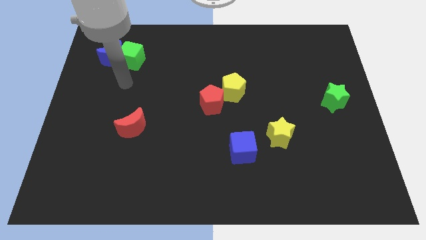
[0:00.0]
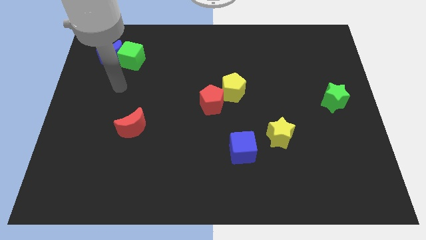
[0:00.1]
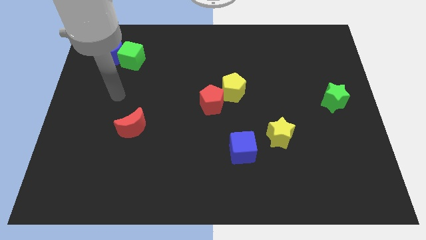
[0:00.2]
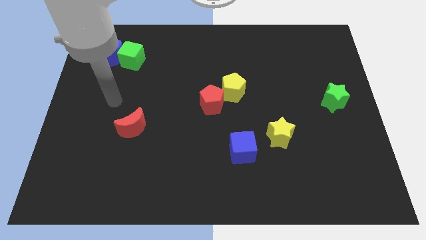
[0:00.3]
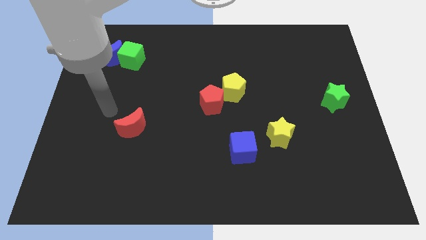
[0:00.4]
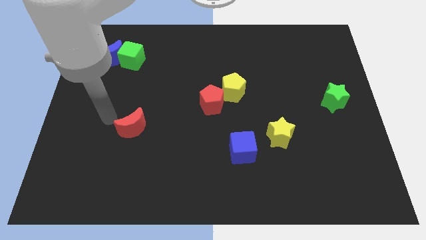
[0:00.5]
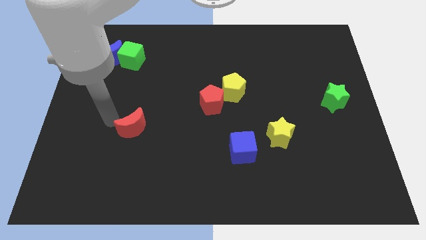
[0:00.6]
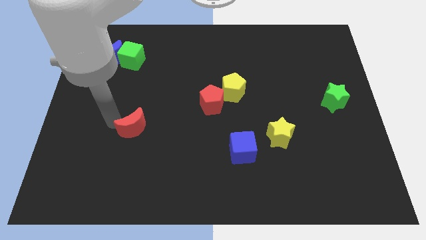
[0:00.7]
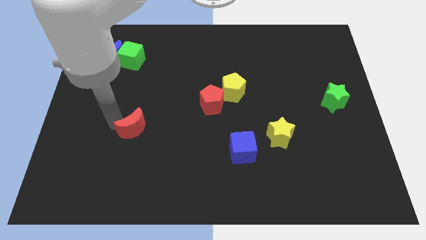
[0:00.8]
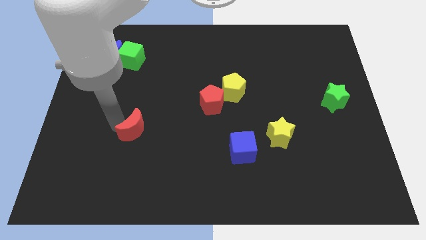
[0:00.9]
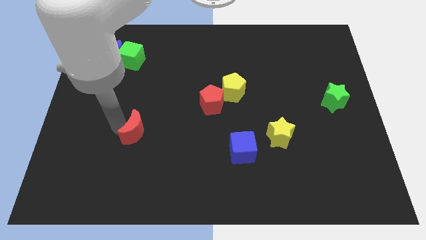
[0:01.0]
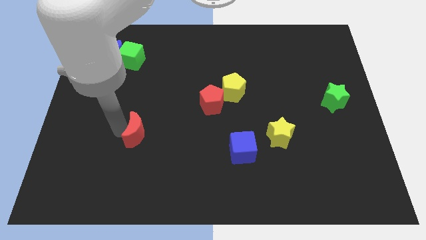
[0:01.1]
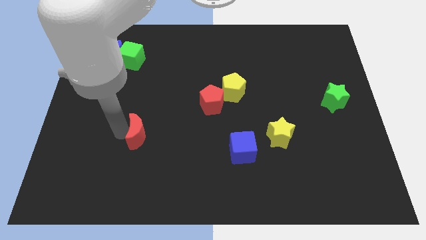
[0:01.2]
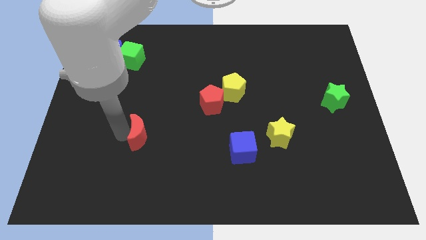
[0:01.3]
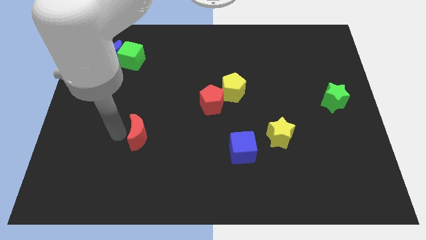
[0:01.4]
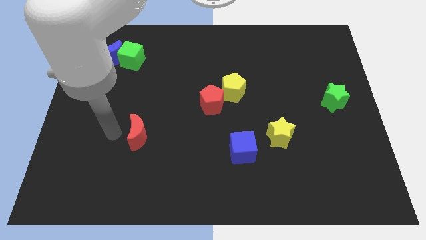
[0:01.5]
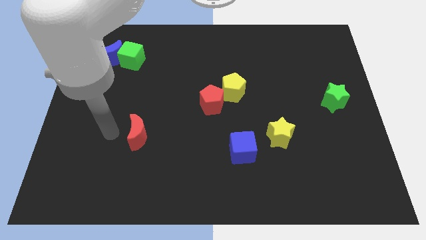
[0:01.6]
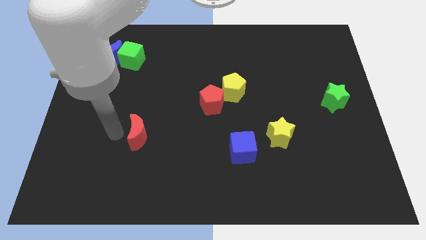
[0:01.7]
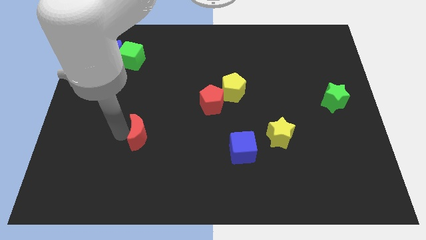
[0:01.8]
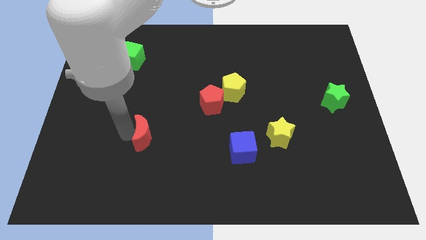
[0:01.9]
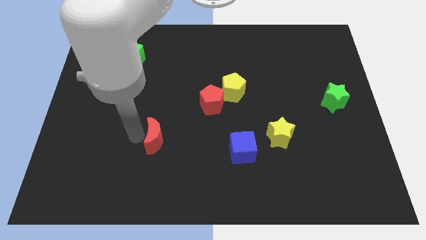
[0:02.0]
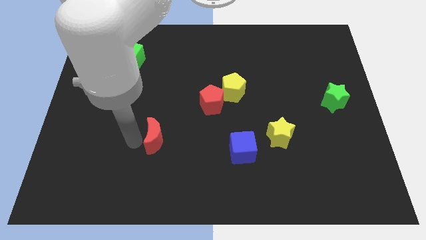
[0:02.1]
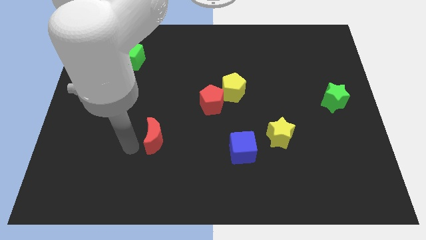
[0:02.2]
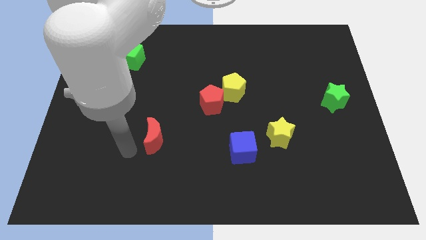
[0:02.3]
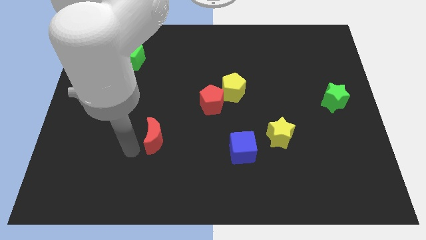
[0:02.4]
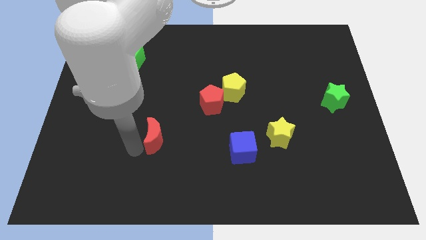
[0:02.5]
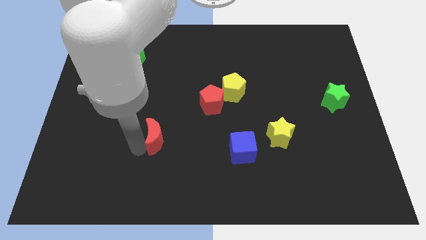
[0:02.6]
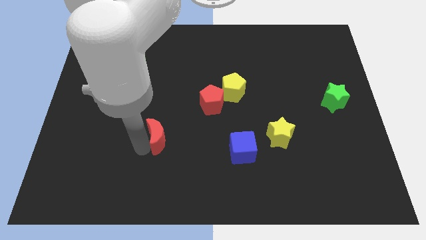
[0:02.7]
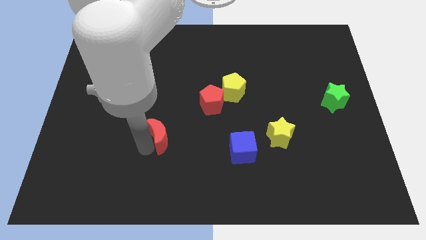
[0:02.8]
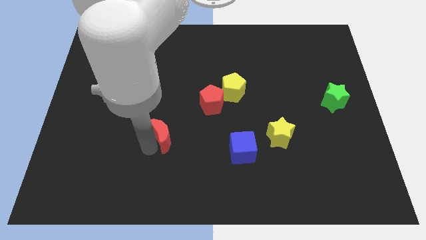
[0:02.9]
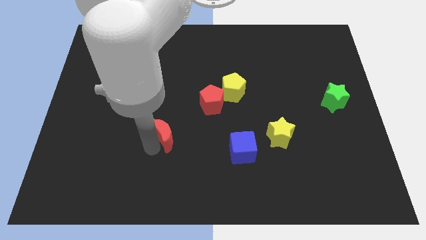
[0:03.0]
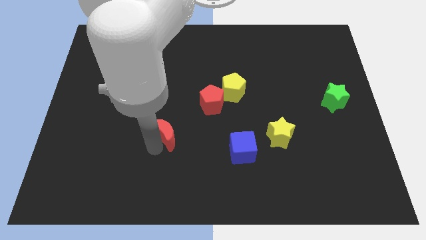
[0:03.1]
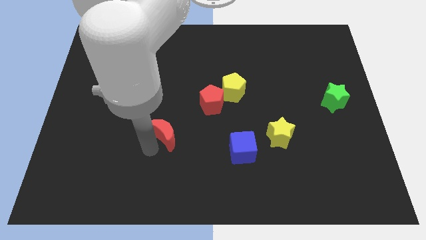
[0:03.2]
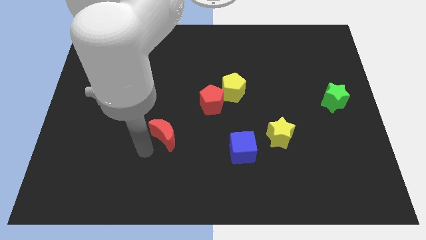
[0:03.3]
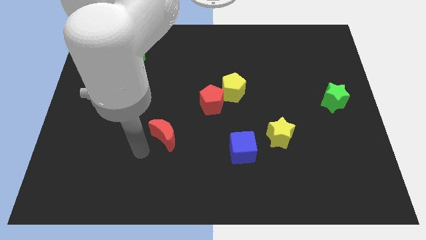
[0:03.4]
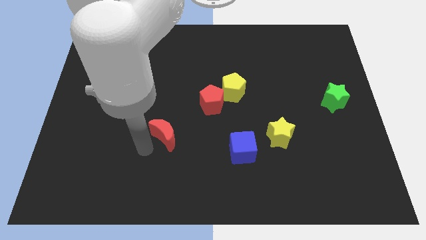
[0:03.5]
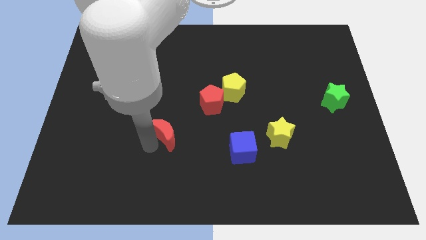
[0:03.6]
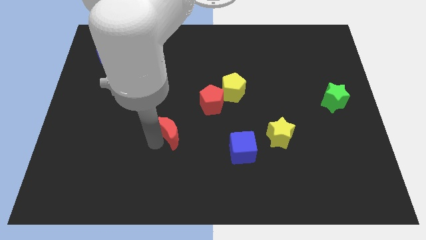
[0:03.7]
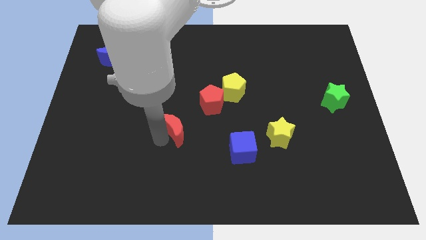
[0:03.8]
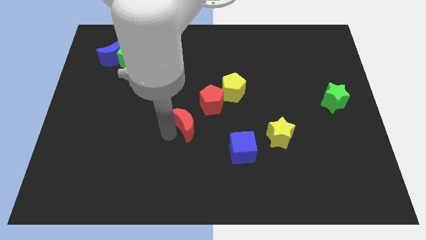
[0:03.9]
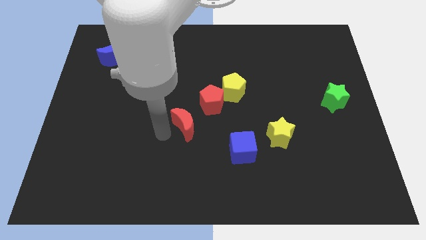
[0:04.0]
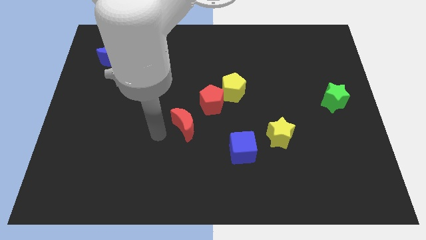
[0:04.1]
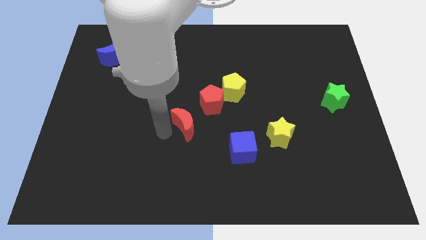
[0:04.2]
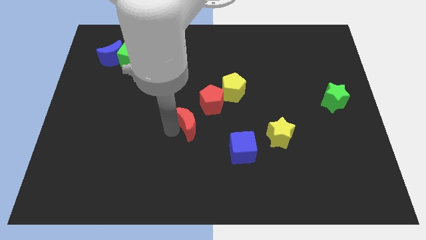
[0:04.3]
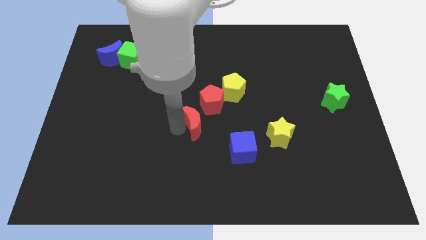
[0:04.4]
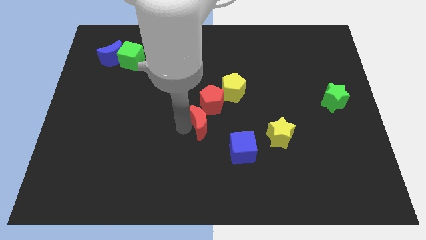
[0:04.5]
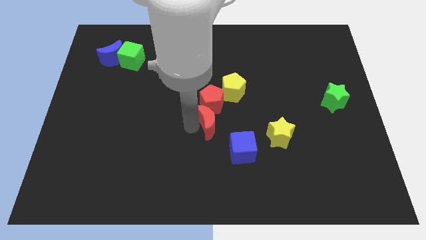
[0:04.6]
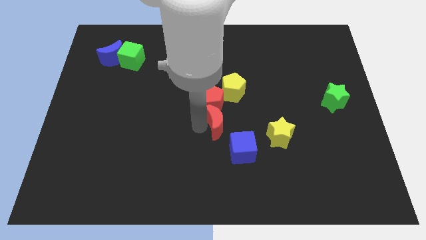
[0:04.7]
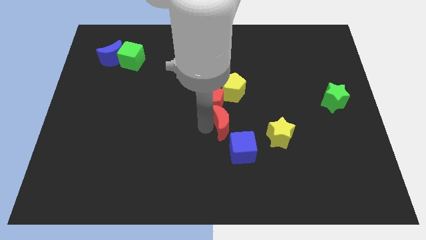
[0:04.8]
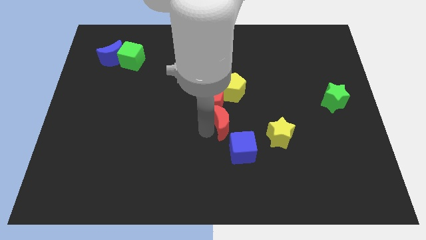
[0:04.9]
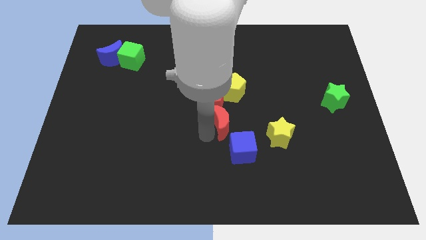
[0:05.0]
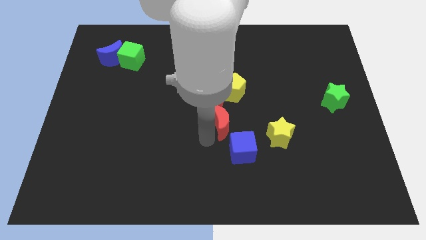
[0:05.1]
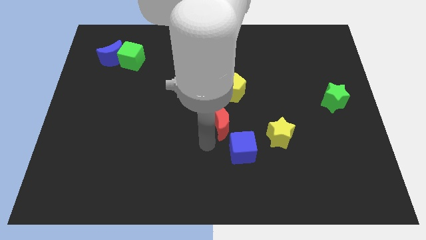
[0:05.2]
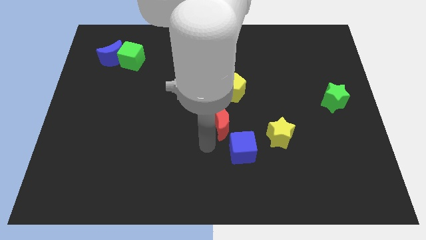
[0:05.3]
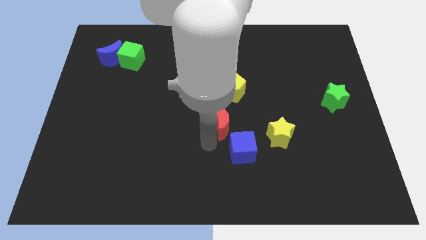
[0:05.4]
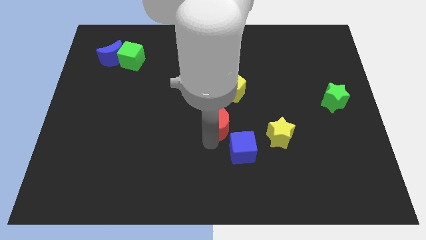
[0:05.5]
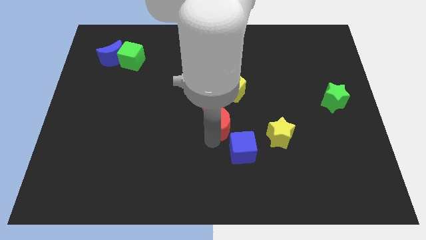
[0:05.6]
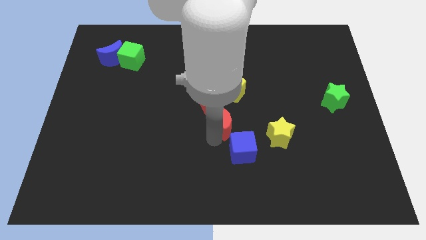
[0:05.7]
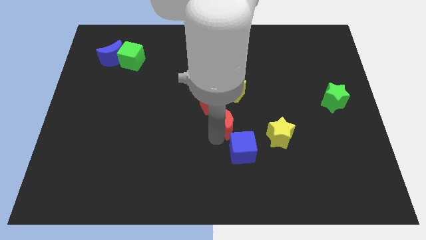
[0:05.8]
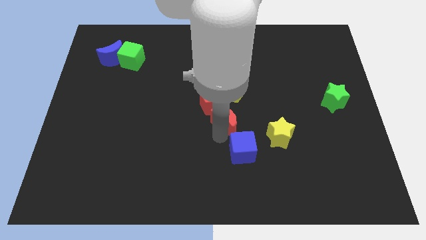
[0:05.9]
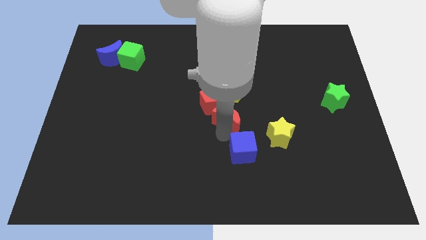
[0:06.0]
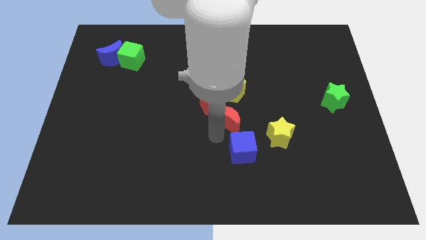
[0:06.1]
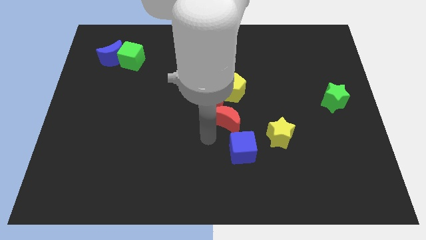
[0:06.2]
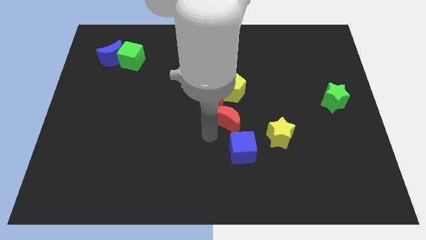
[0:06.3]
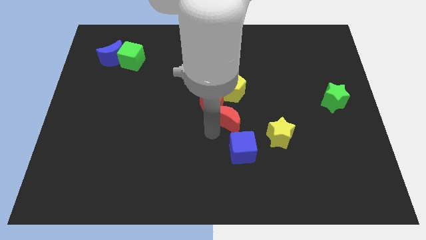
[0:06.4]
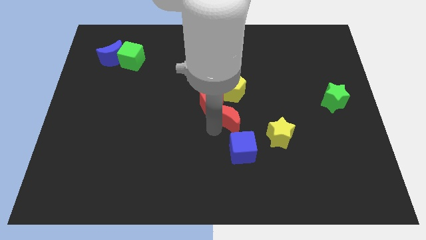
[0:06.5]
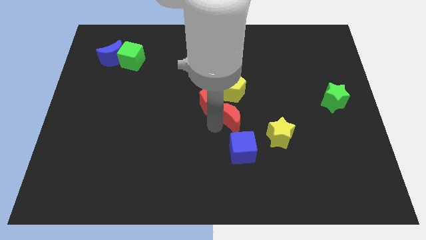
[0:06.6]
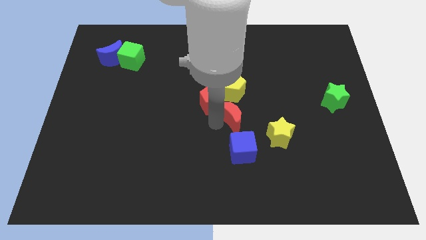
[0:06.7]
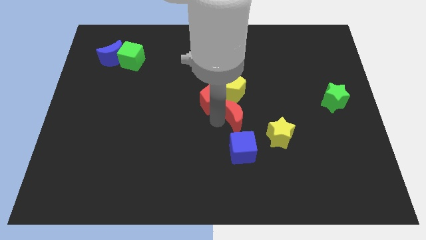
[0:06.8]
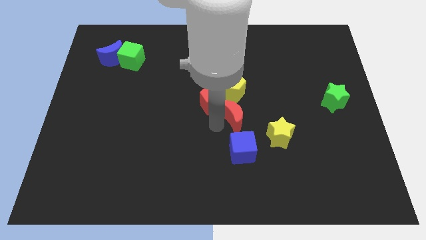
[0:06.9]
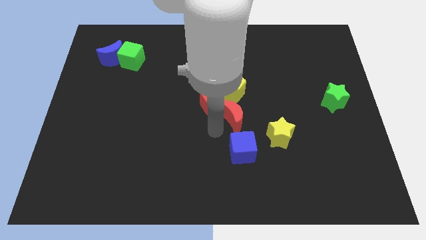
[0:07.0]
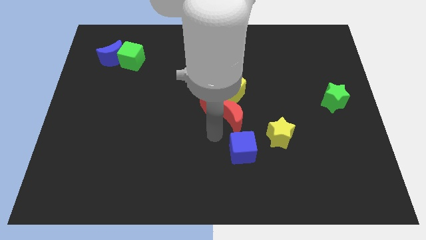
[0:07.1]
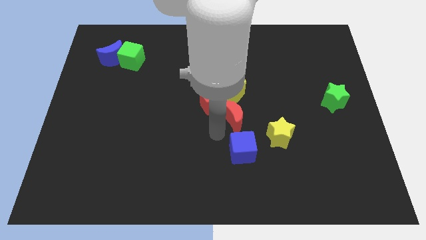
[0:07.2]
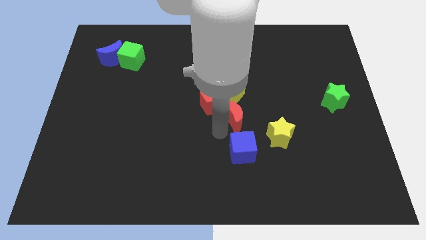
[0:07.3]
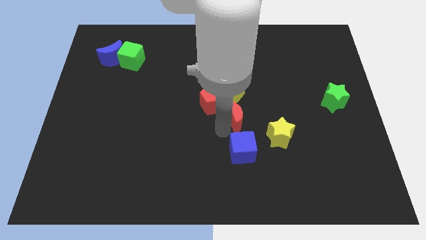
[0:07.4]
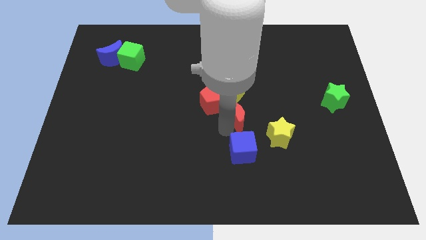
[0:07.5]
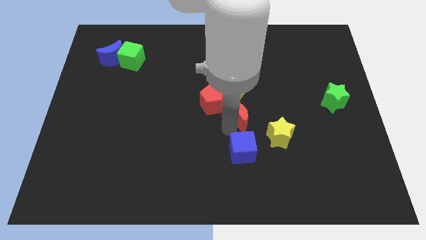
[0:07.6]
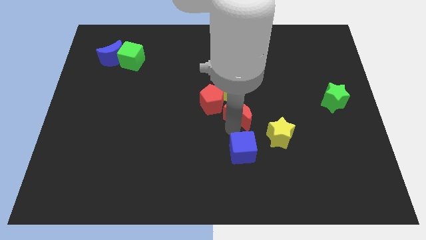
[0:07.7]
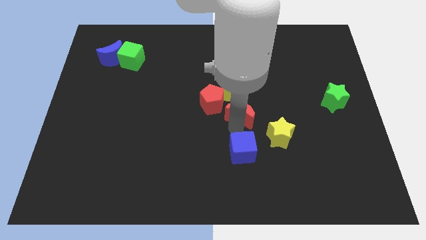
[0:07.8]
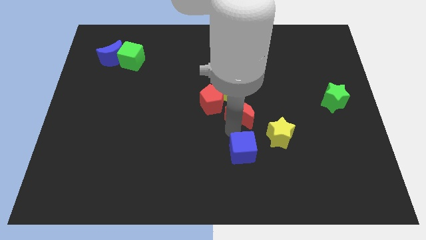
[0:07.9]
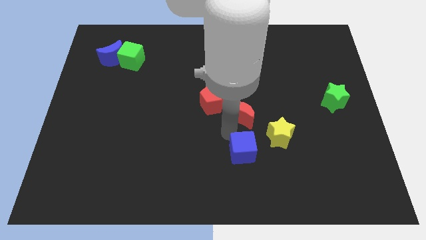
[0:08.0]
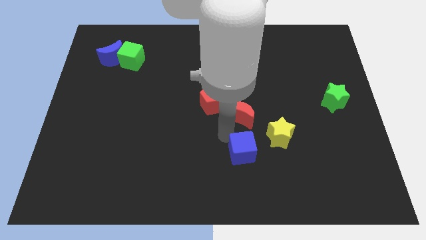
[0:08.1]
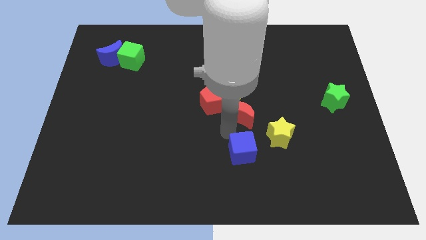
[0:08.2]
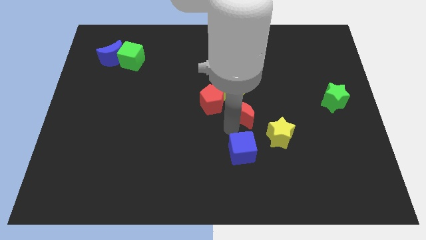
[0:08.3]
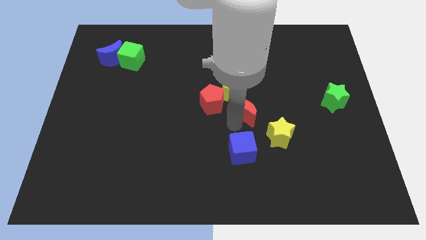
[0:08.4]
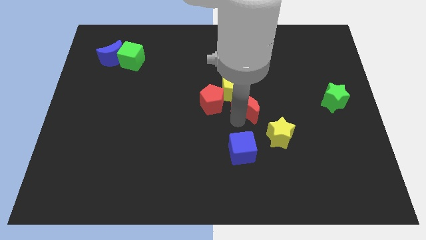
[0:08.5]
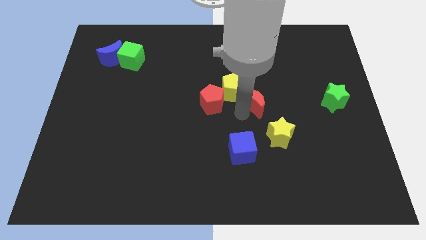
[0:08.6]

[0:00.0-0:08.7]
slide the red moon right of the yellow pentagon
